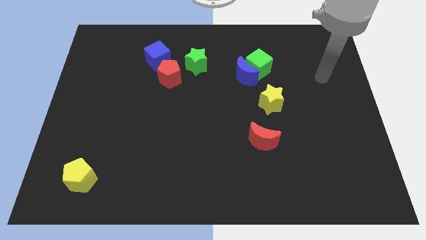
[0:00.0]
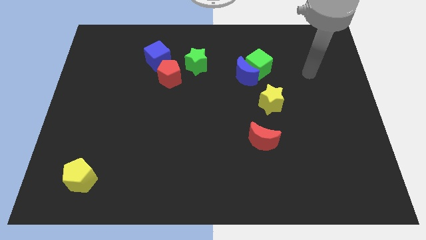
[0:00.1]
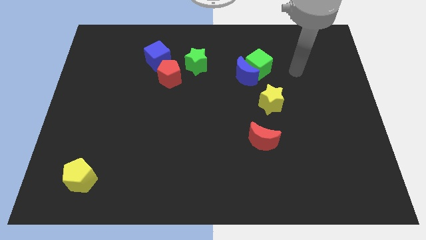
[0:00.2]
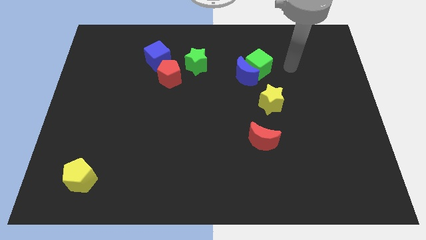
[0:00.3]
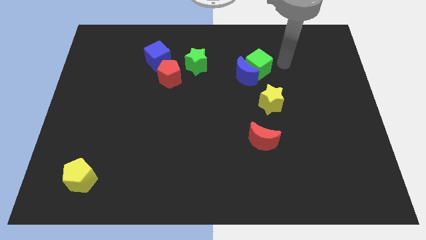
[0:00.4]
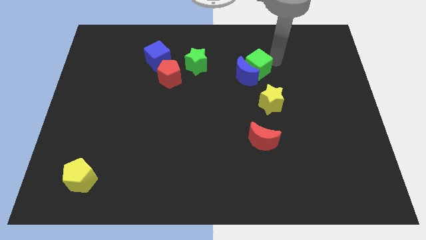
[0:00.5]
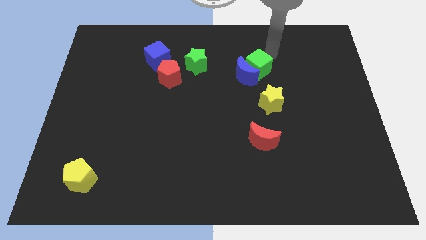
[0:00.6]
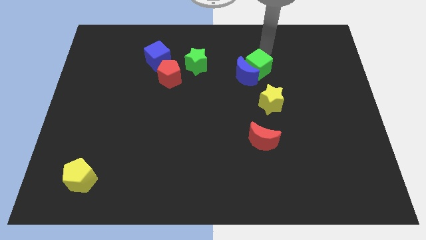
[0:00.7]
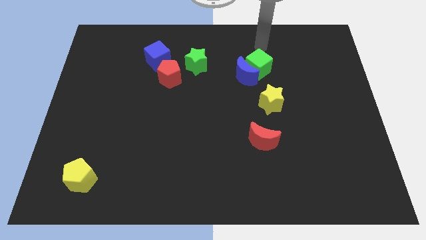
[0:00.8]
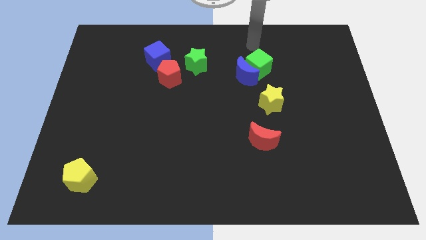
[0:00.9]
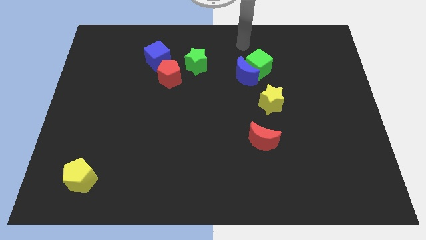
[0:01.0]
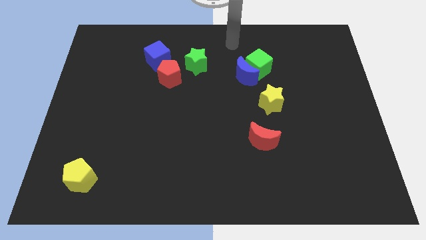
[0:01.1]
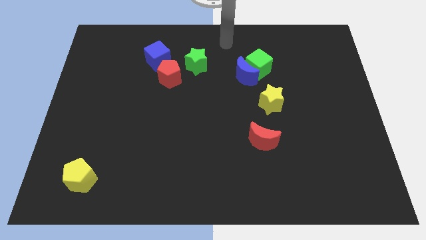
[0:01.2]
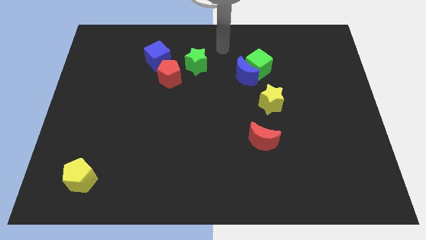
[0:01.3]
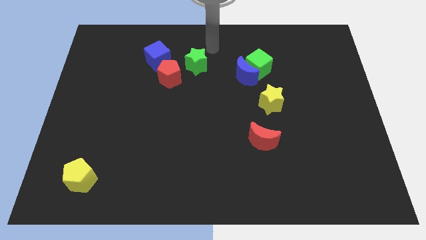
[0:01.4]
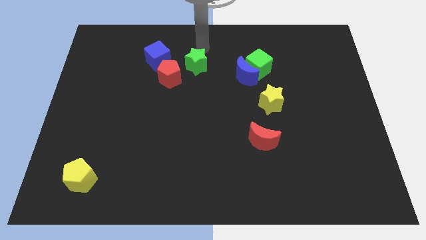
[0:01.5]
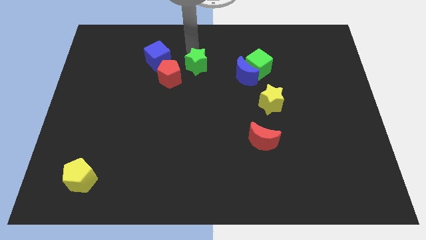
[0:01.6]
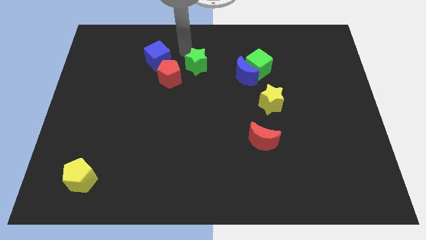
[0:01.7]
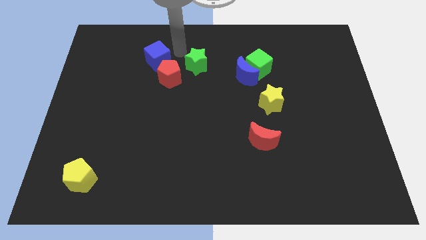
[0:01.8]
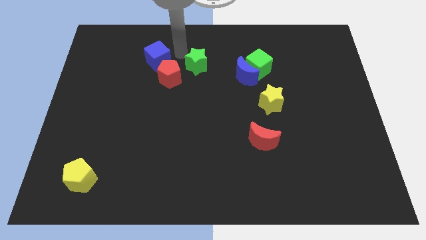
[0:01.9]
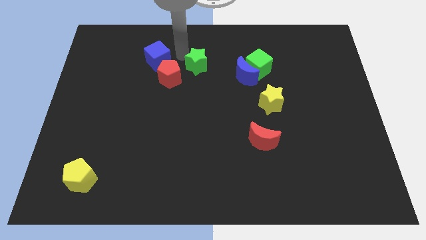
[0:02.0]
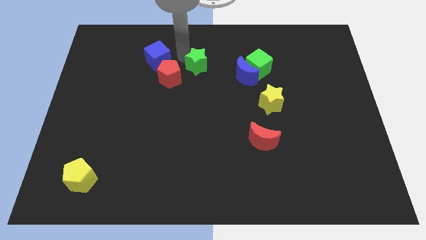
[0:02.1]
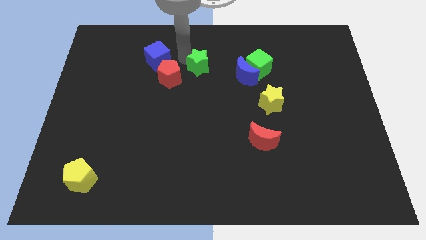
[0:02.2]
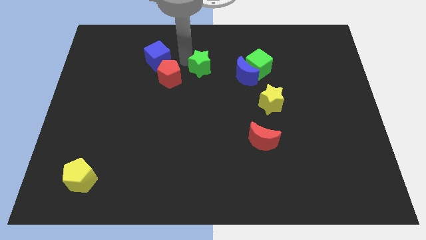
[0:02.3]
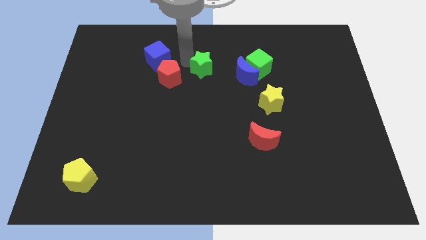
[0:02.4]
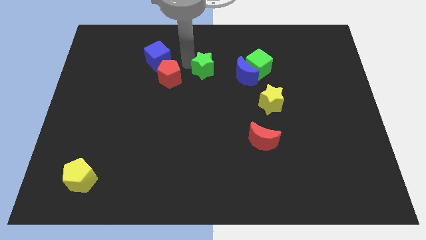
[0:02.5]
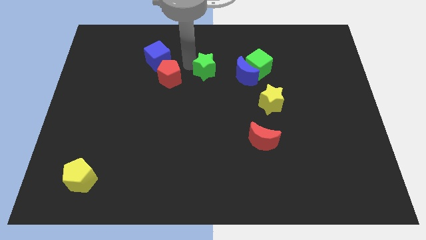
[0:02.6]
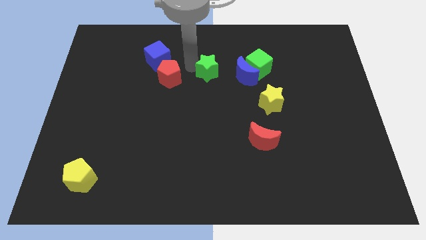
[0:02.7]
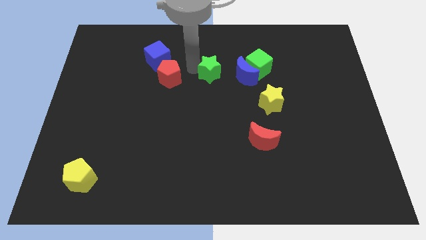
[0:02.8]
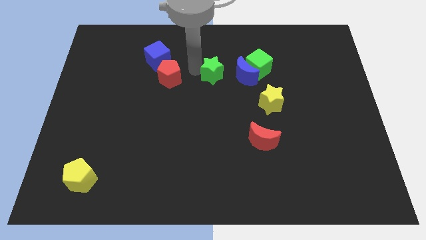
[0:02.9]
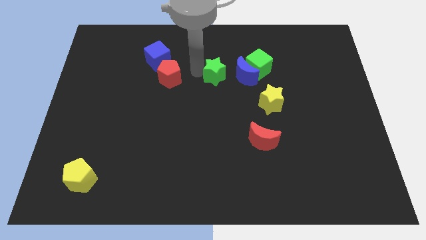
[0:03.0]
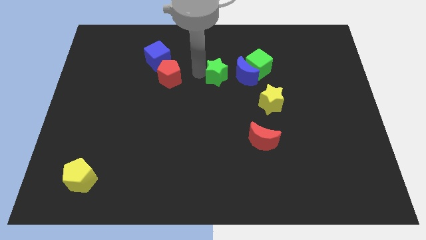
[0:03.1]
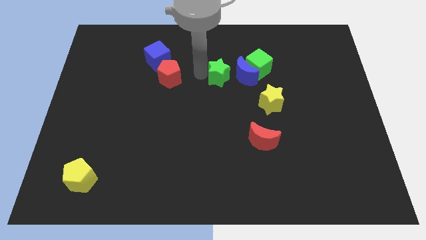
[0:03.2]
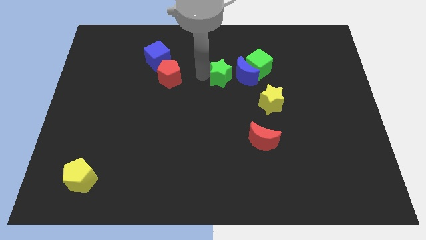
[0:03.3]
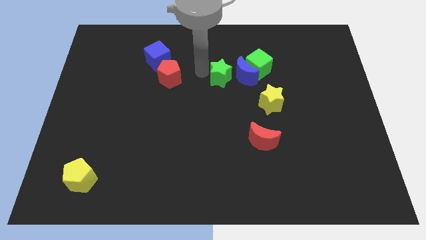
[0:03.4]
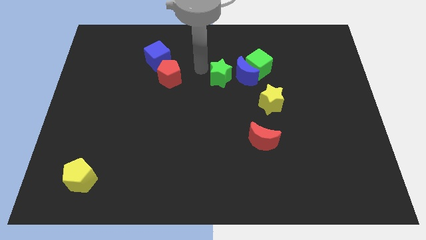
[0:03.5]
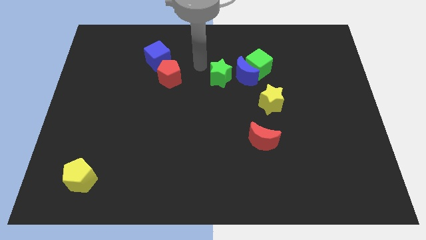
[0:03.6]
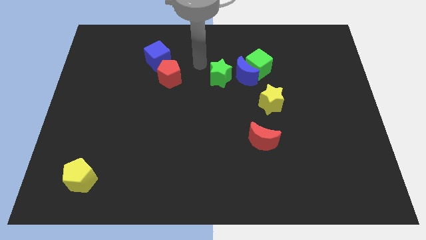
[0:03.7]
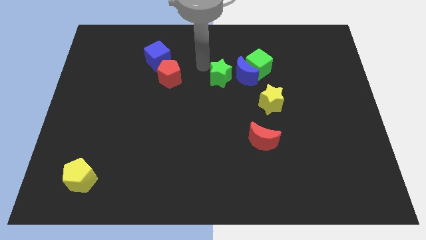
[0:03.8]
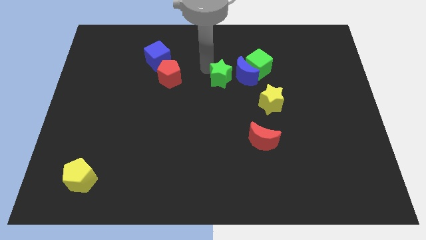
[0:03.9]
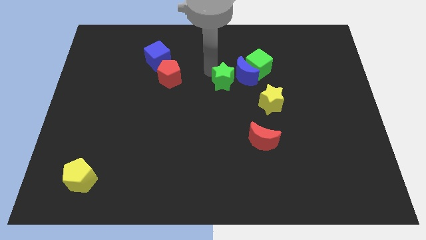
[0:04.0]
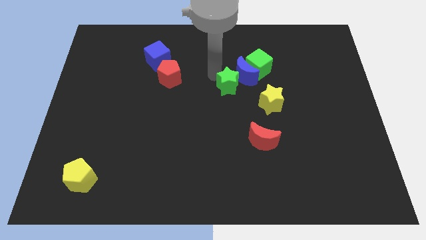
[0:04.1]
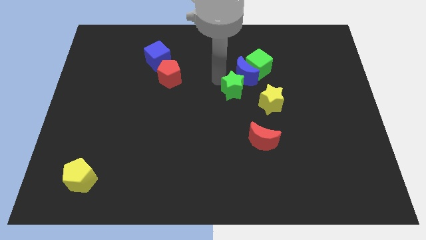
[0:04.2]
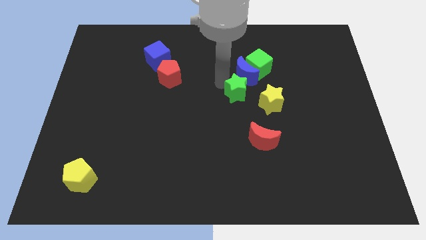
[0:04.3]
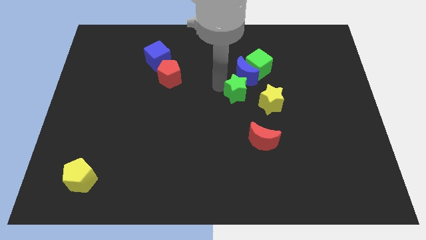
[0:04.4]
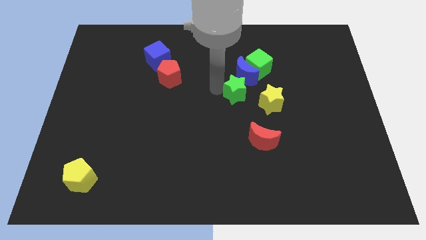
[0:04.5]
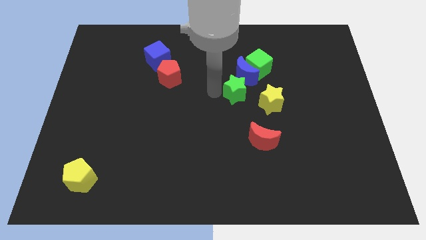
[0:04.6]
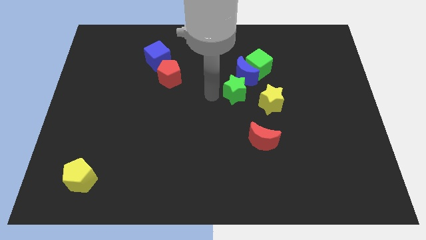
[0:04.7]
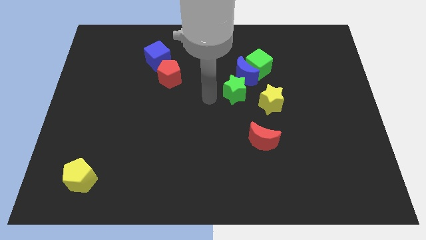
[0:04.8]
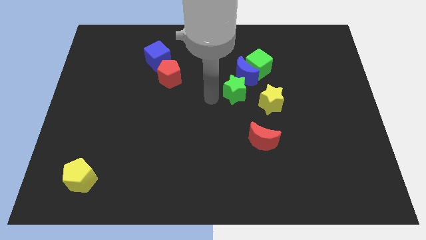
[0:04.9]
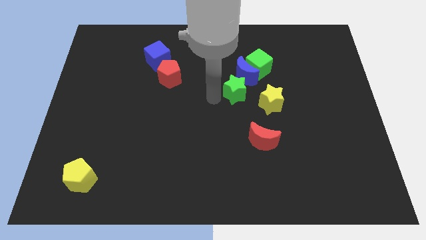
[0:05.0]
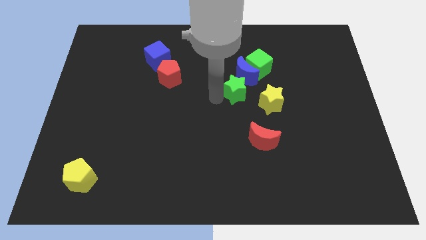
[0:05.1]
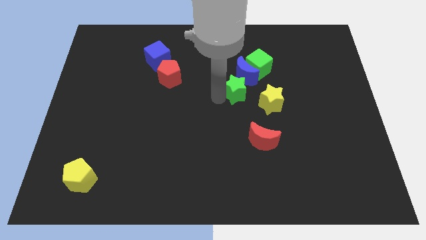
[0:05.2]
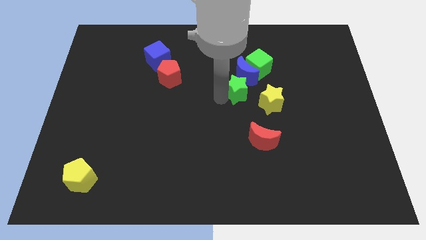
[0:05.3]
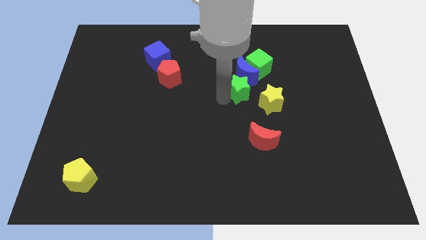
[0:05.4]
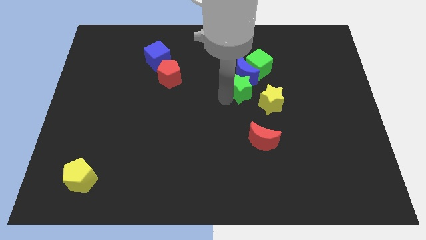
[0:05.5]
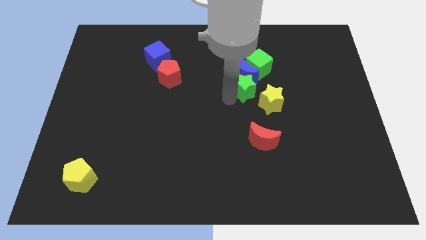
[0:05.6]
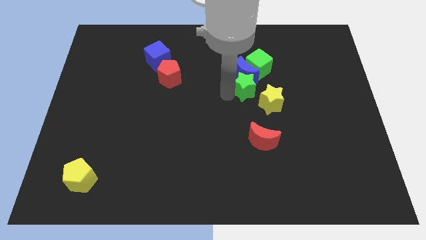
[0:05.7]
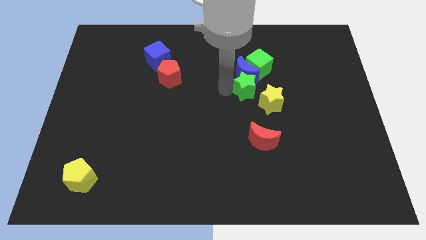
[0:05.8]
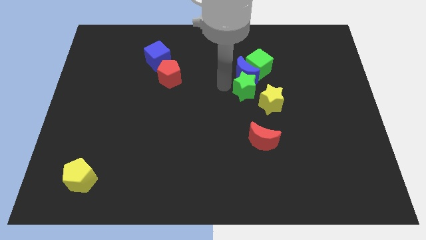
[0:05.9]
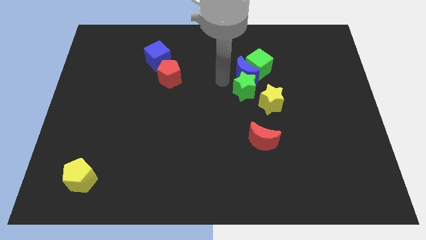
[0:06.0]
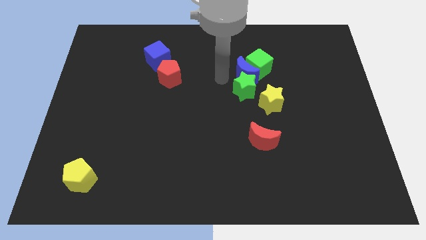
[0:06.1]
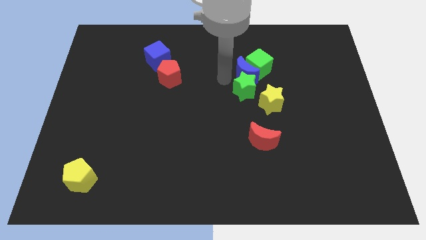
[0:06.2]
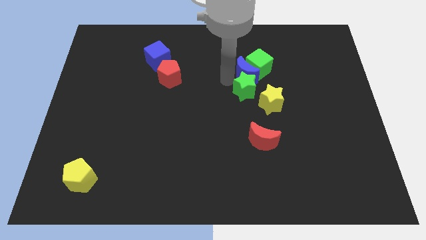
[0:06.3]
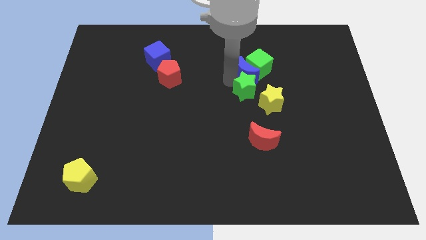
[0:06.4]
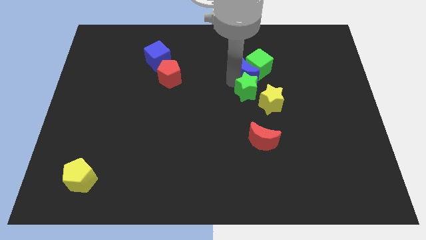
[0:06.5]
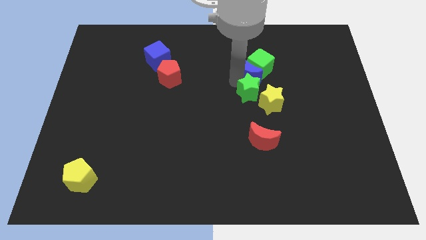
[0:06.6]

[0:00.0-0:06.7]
push the green star next to the yellow star

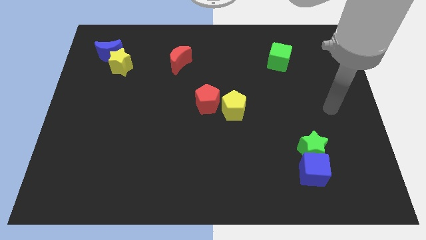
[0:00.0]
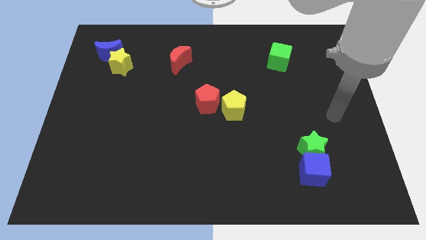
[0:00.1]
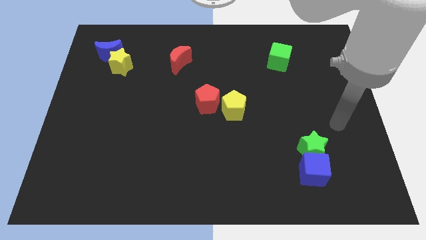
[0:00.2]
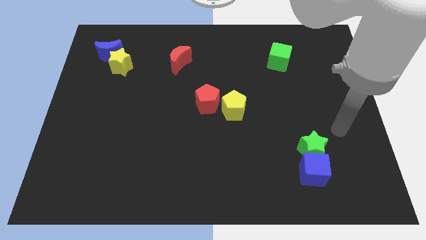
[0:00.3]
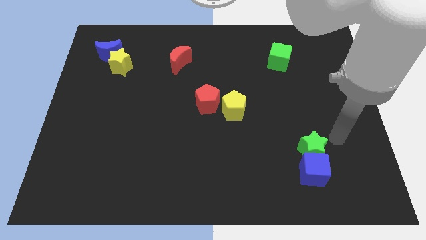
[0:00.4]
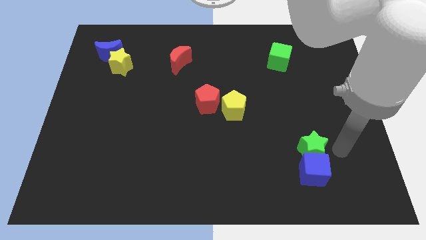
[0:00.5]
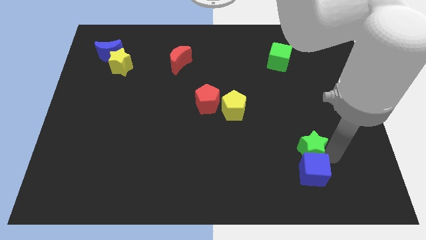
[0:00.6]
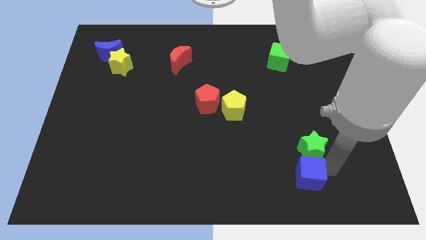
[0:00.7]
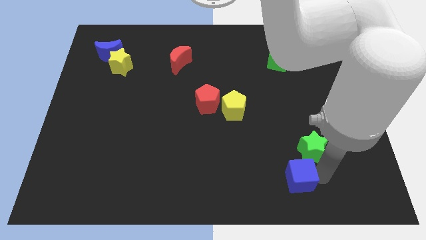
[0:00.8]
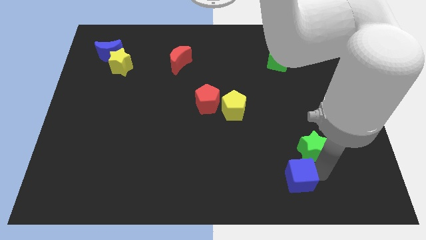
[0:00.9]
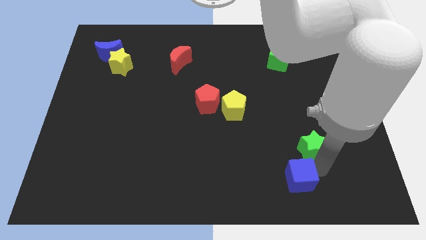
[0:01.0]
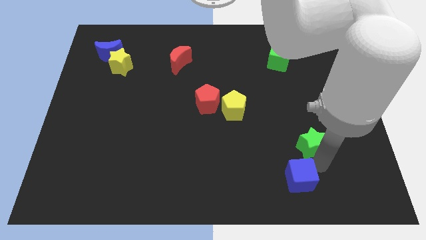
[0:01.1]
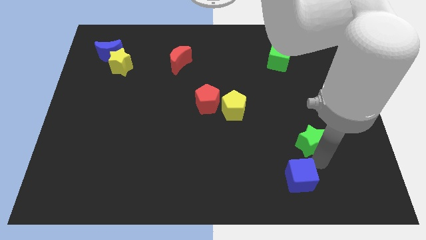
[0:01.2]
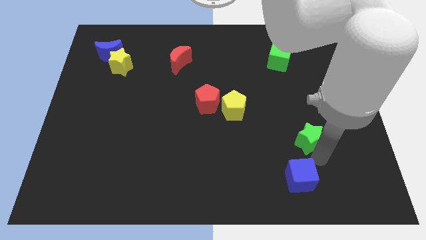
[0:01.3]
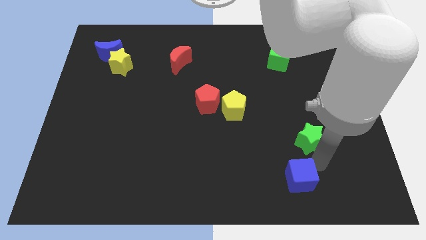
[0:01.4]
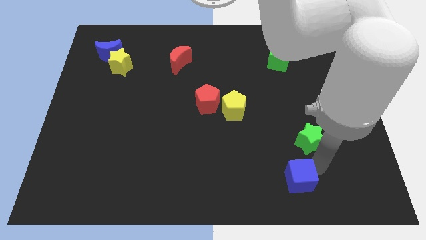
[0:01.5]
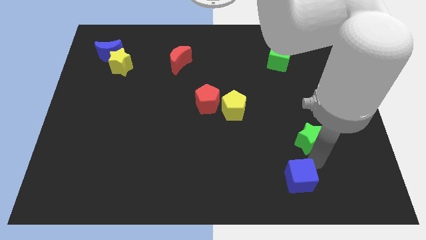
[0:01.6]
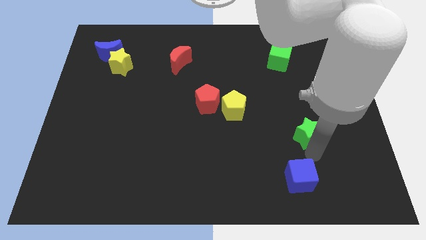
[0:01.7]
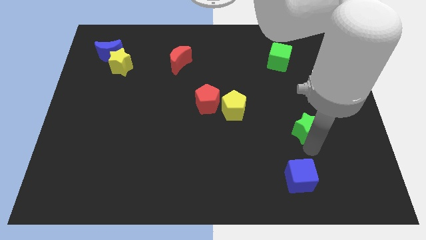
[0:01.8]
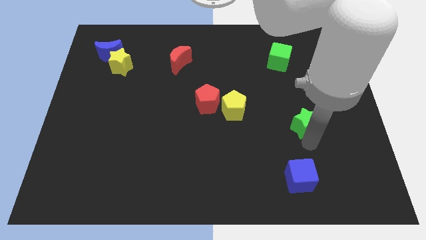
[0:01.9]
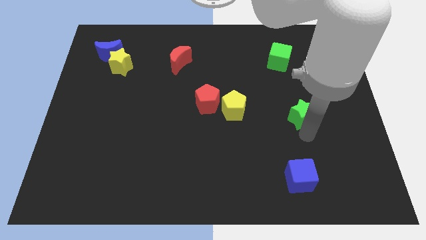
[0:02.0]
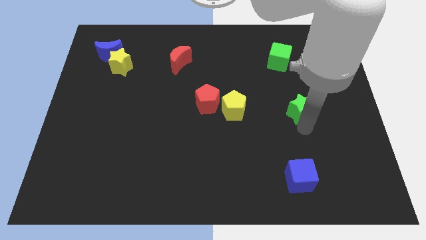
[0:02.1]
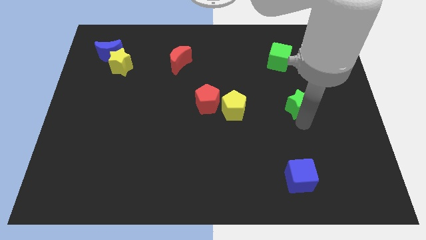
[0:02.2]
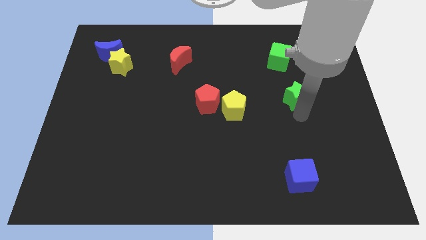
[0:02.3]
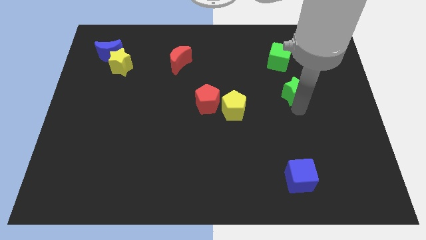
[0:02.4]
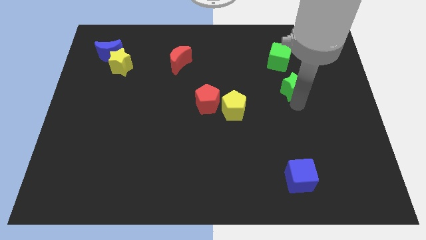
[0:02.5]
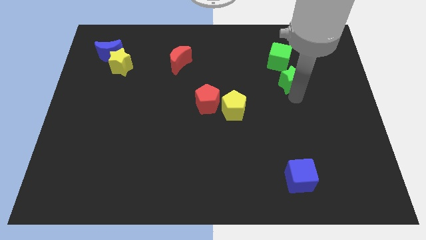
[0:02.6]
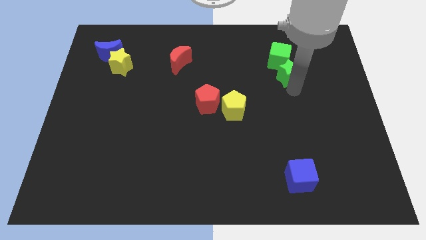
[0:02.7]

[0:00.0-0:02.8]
put the green star towards the green cube
